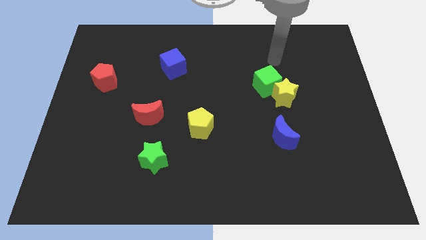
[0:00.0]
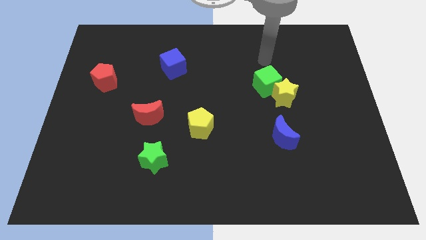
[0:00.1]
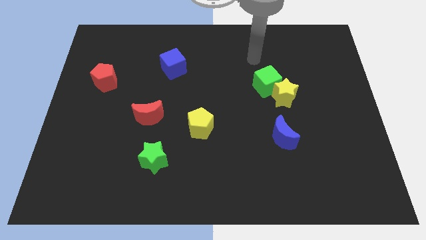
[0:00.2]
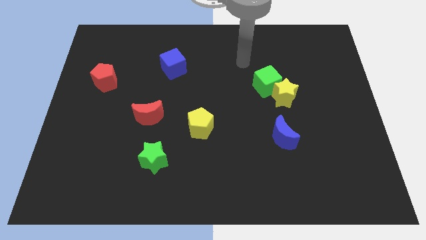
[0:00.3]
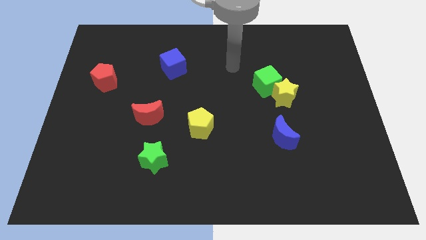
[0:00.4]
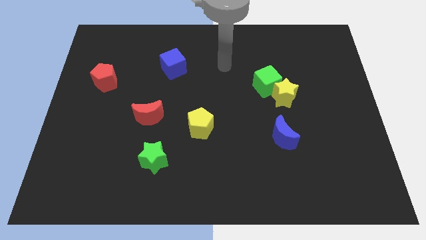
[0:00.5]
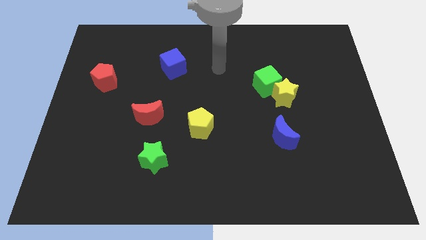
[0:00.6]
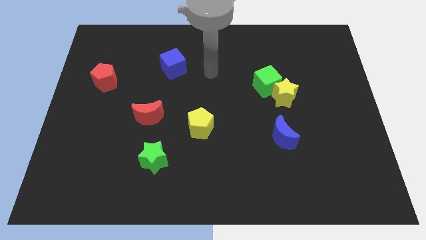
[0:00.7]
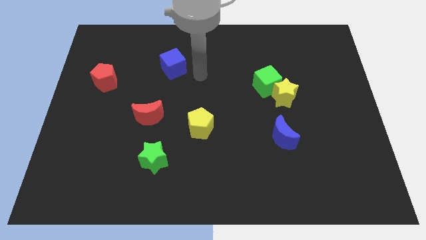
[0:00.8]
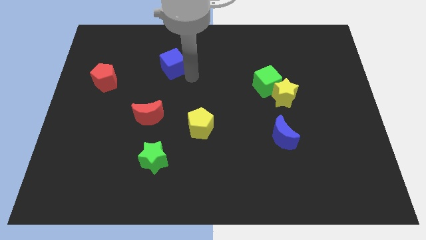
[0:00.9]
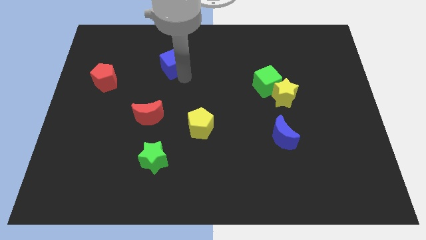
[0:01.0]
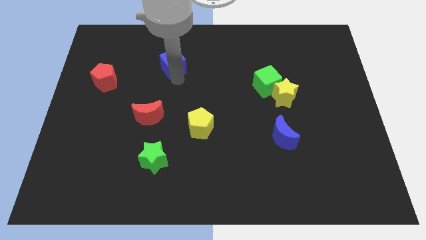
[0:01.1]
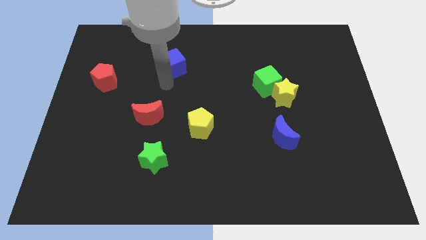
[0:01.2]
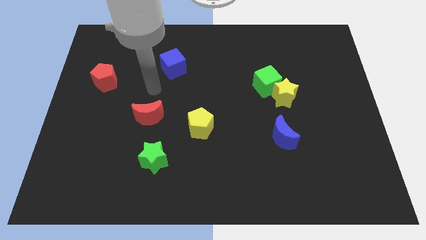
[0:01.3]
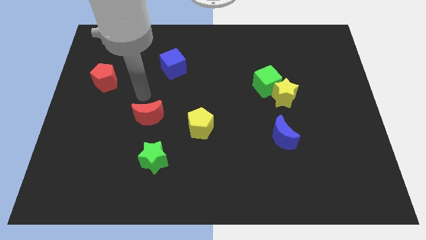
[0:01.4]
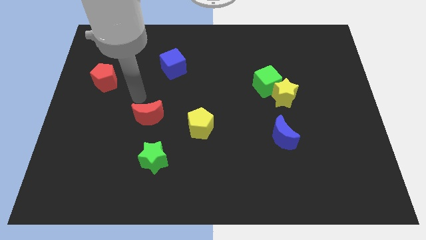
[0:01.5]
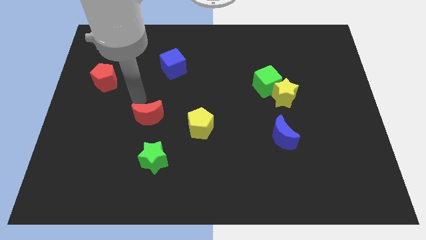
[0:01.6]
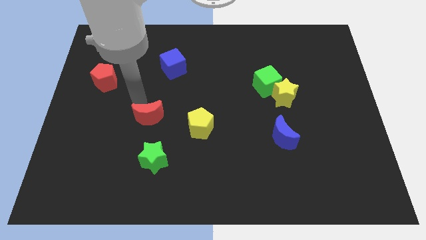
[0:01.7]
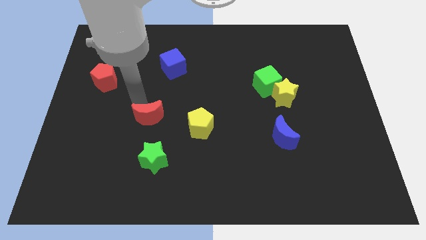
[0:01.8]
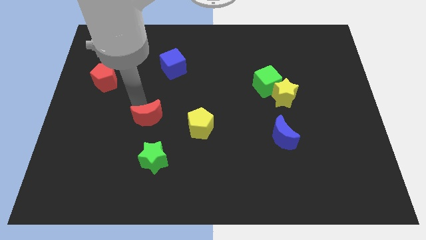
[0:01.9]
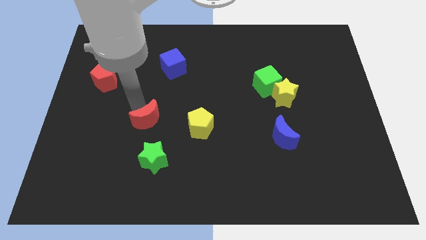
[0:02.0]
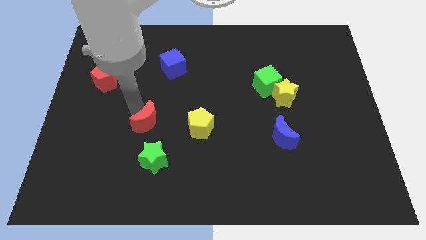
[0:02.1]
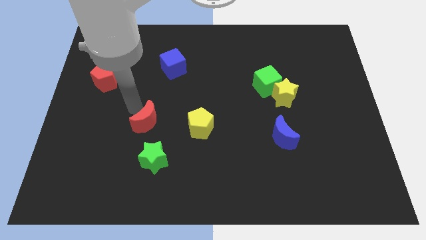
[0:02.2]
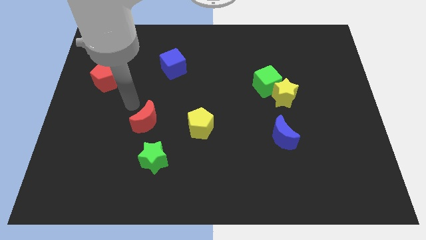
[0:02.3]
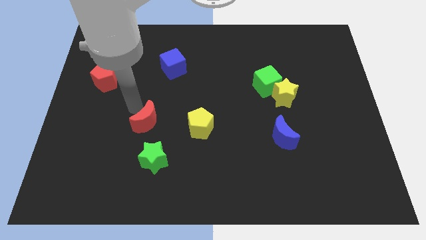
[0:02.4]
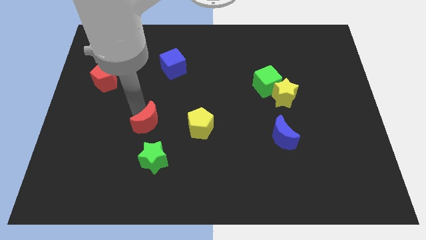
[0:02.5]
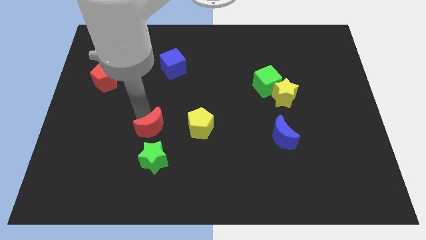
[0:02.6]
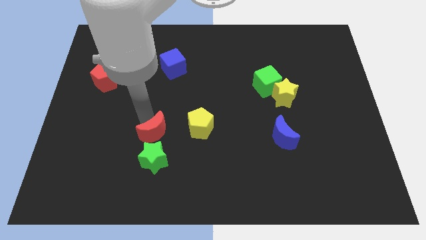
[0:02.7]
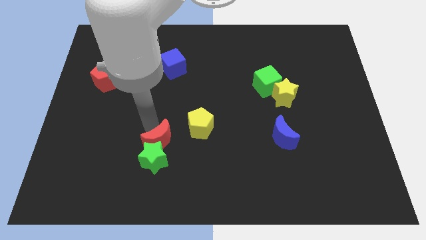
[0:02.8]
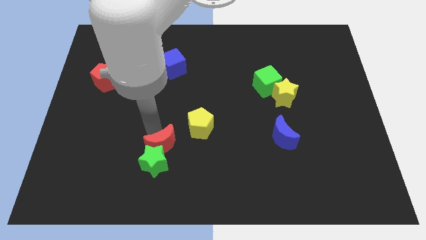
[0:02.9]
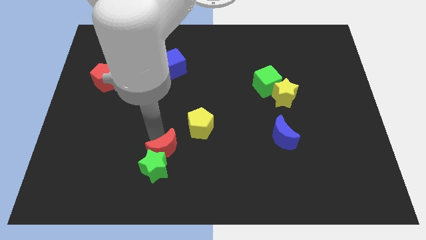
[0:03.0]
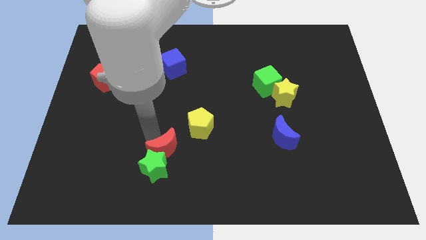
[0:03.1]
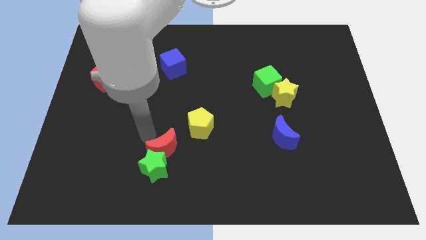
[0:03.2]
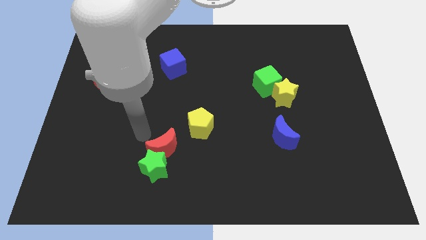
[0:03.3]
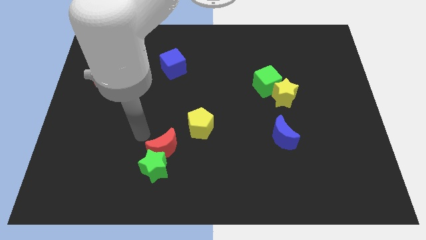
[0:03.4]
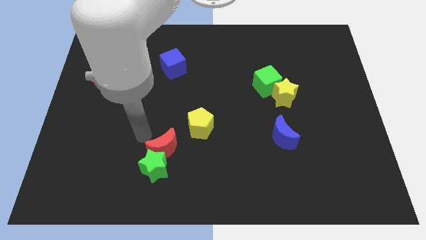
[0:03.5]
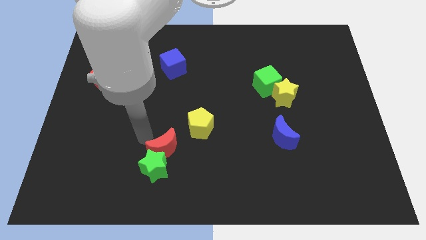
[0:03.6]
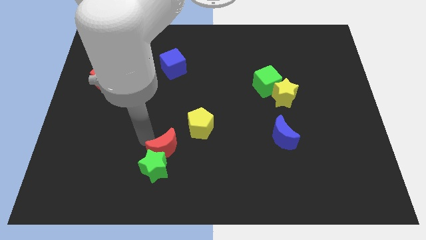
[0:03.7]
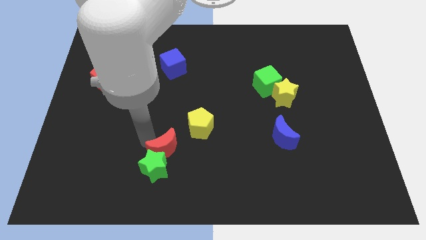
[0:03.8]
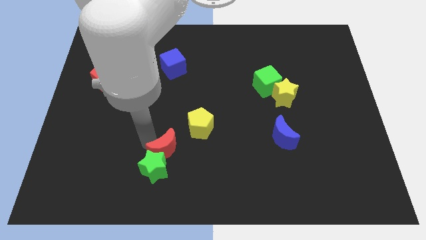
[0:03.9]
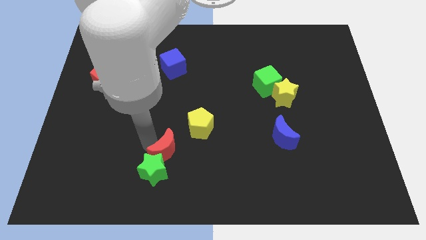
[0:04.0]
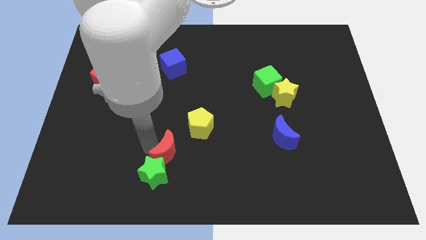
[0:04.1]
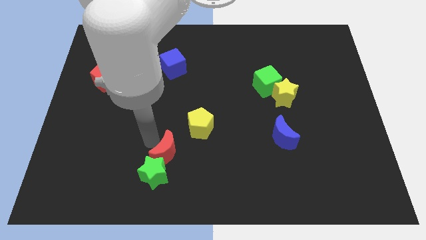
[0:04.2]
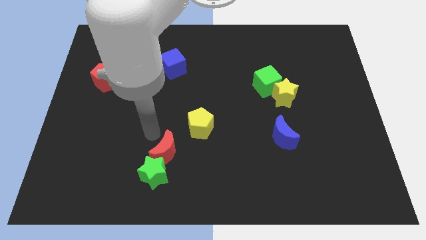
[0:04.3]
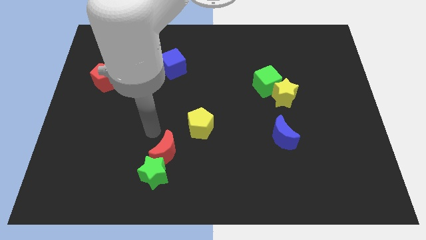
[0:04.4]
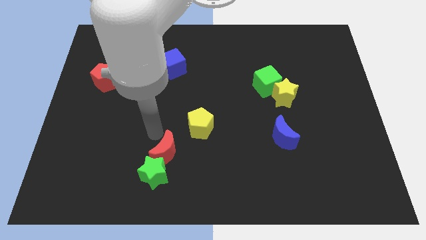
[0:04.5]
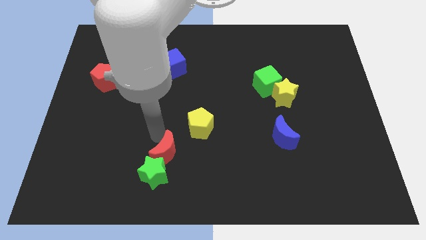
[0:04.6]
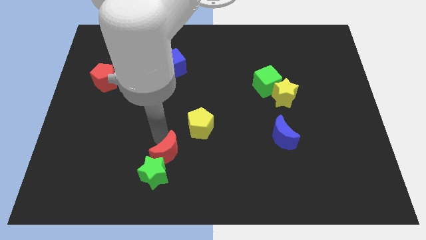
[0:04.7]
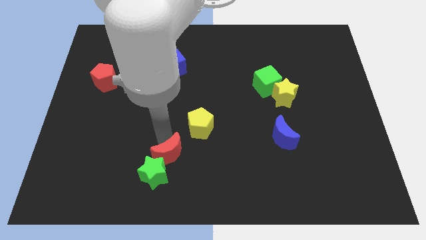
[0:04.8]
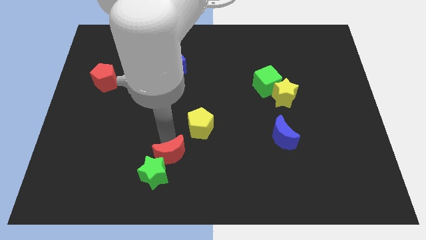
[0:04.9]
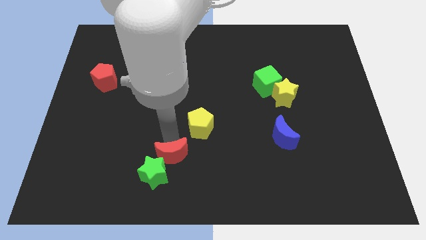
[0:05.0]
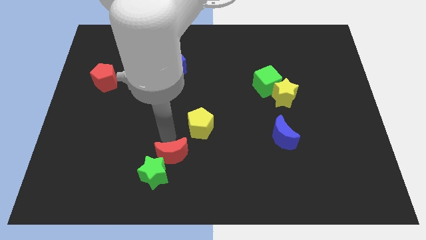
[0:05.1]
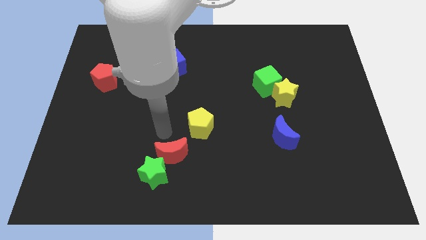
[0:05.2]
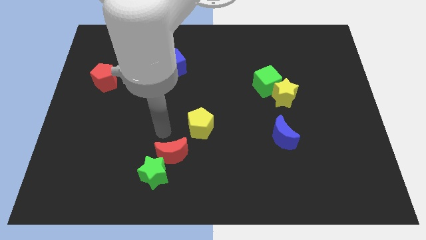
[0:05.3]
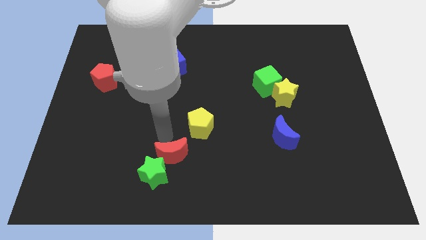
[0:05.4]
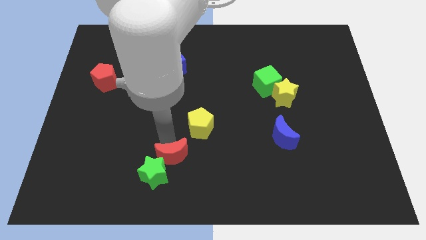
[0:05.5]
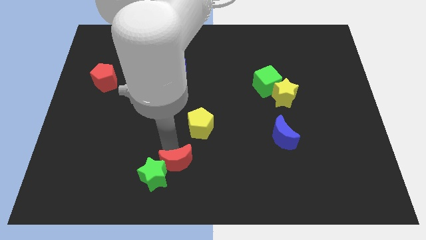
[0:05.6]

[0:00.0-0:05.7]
slide the red moon to the bottom side
